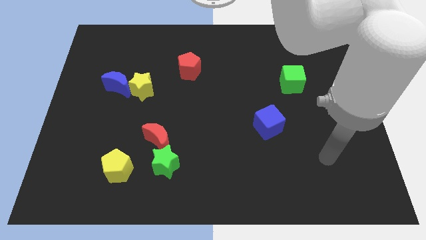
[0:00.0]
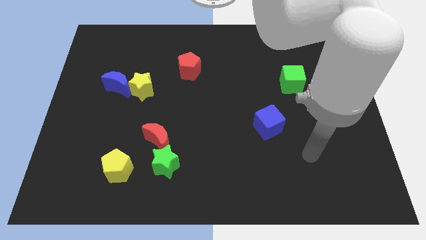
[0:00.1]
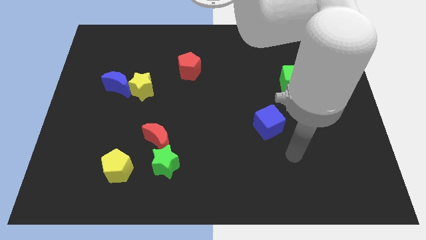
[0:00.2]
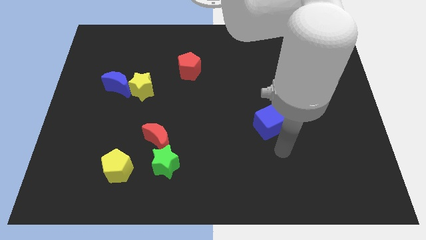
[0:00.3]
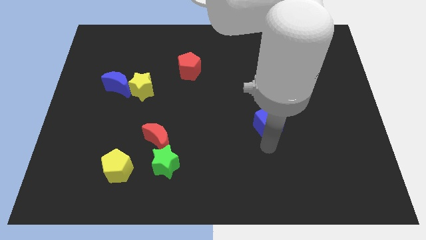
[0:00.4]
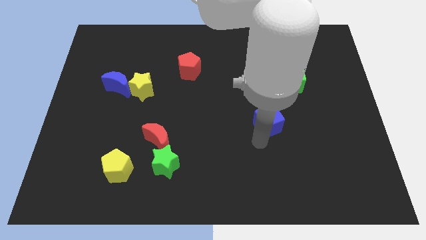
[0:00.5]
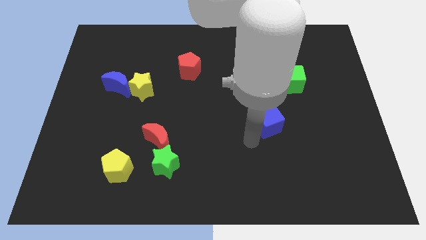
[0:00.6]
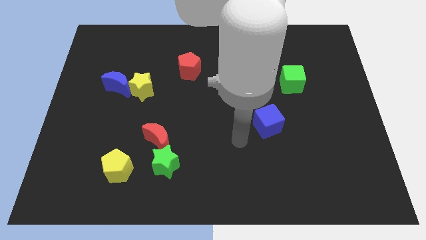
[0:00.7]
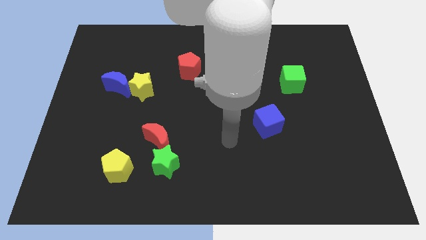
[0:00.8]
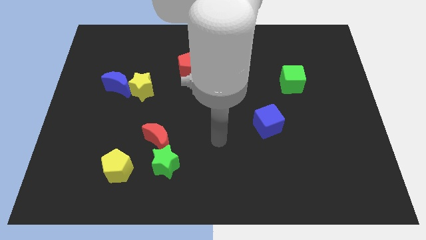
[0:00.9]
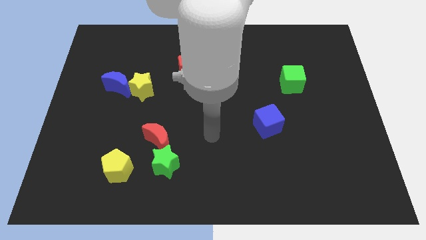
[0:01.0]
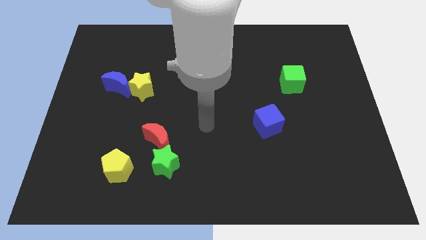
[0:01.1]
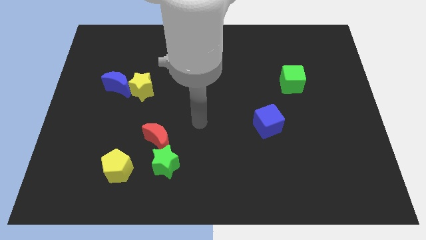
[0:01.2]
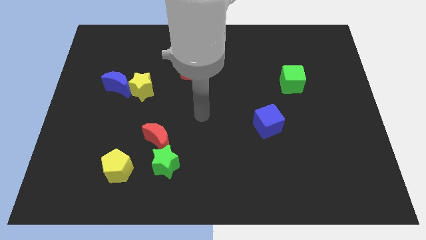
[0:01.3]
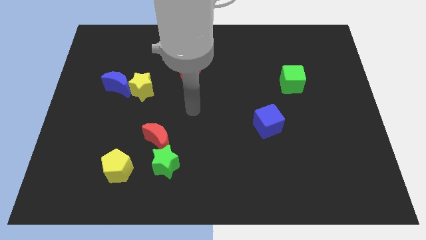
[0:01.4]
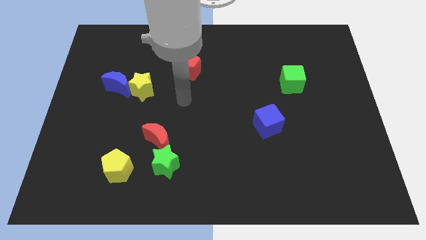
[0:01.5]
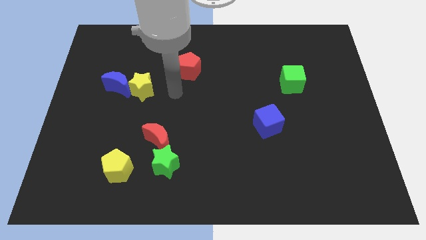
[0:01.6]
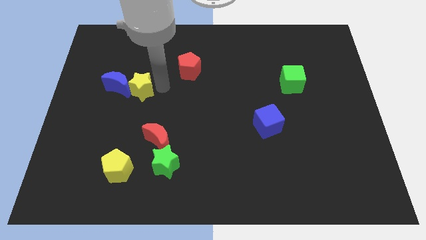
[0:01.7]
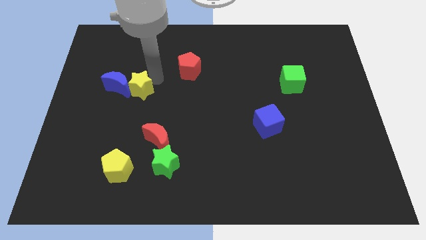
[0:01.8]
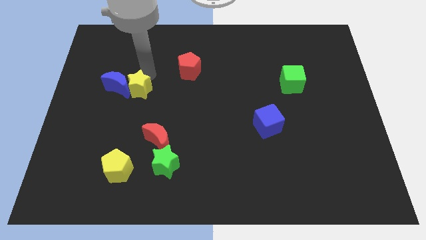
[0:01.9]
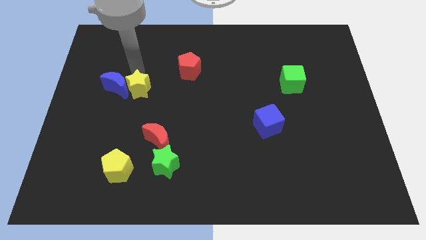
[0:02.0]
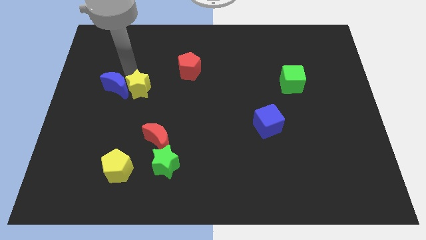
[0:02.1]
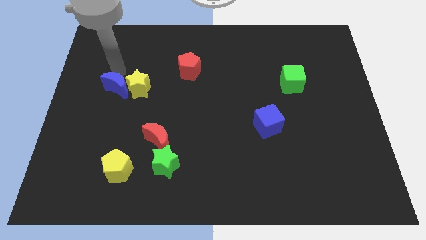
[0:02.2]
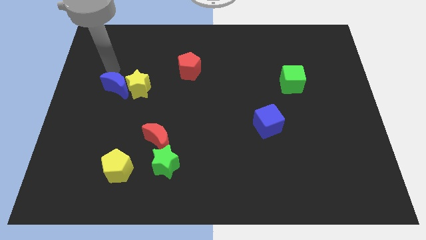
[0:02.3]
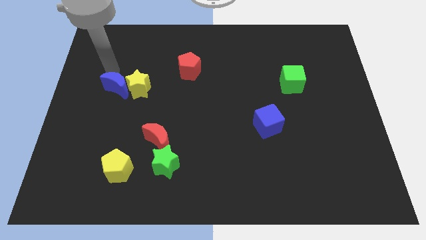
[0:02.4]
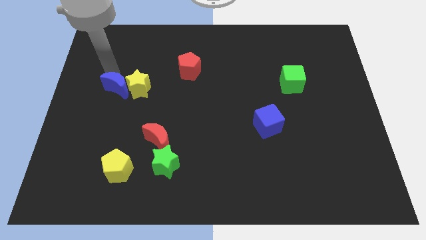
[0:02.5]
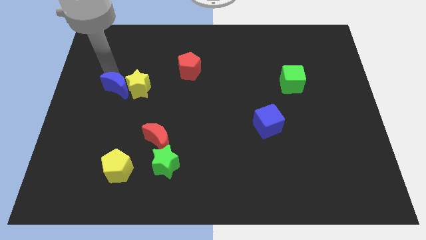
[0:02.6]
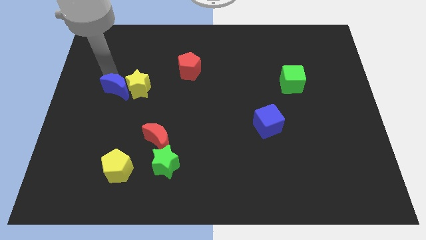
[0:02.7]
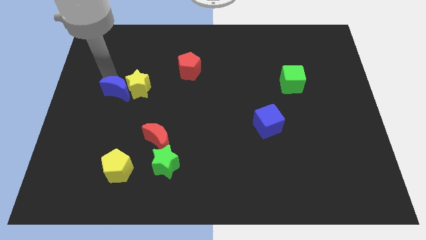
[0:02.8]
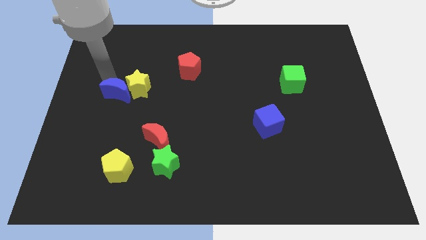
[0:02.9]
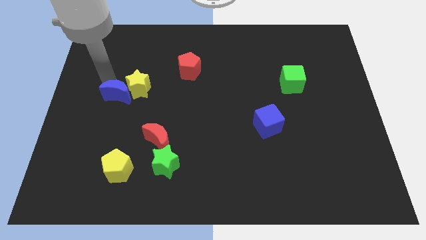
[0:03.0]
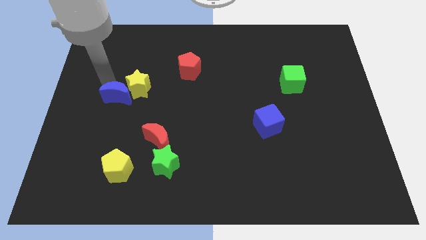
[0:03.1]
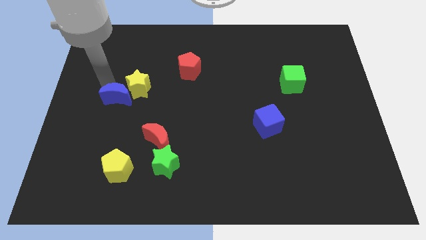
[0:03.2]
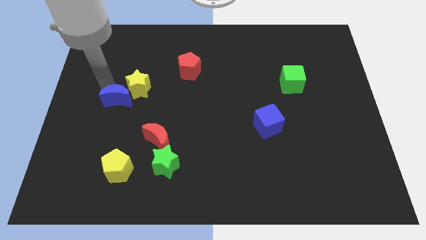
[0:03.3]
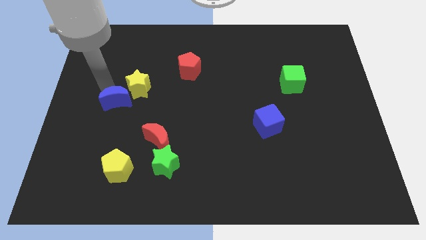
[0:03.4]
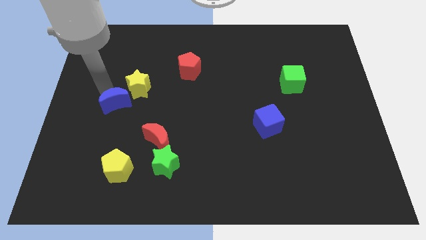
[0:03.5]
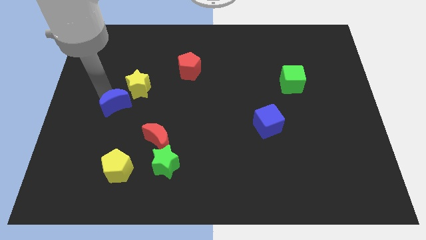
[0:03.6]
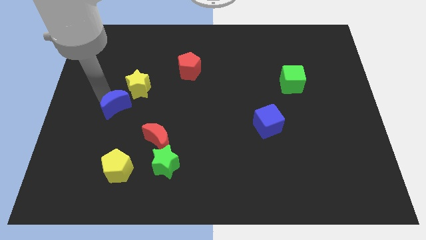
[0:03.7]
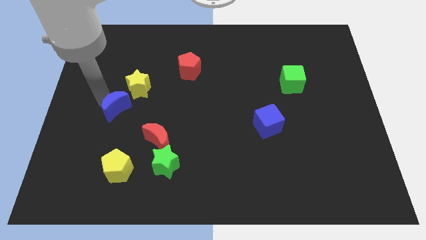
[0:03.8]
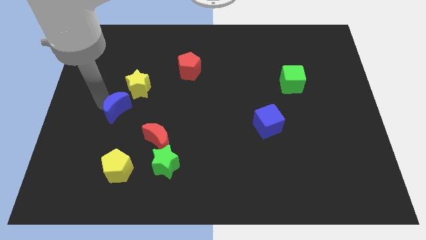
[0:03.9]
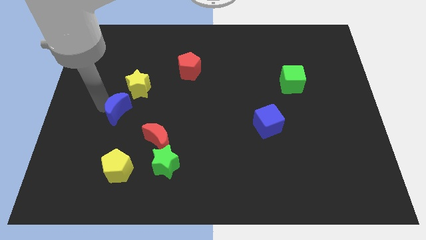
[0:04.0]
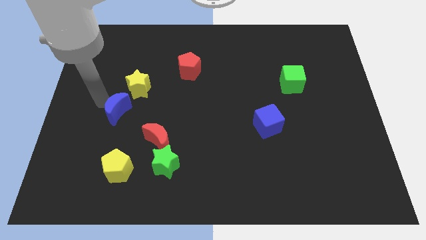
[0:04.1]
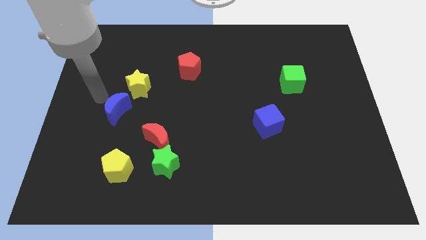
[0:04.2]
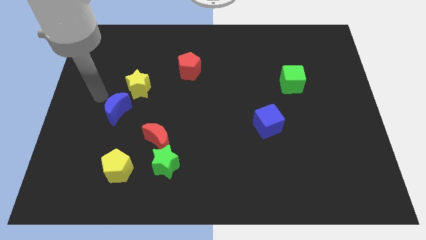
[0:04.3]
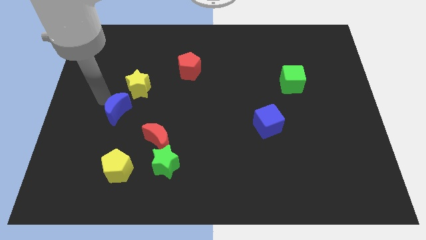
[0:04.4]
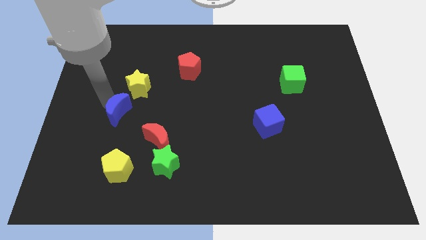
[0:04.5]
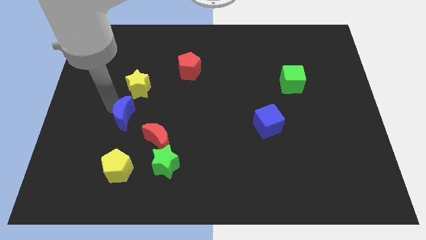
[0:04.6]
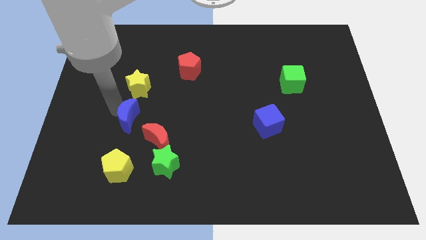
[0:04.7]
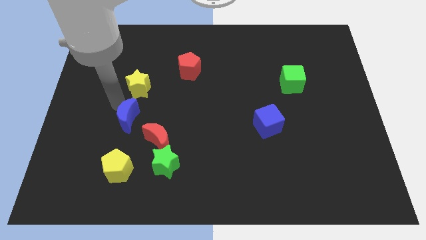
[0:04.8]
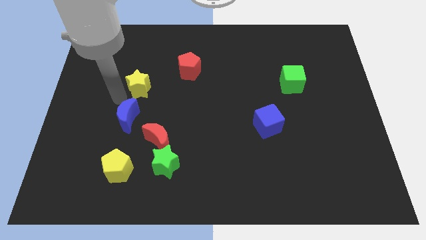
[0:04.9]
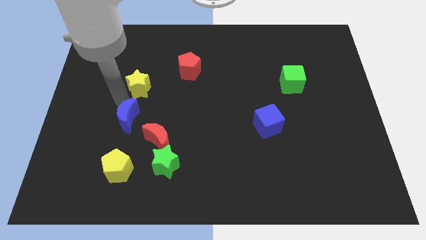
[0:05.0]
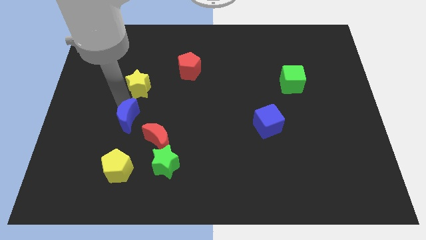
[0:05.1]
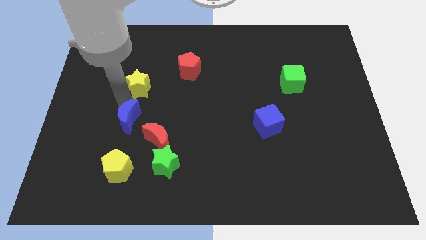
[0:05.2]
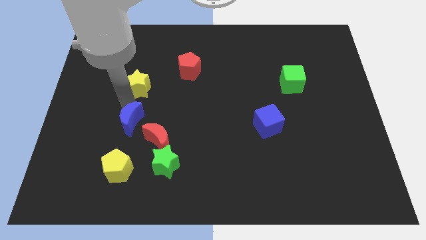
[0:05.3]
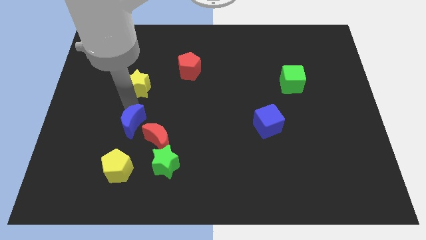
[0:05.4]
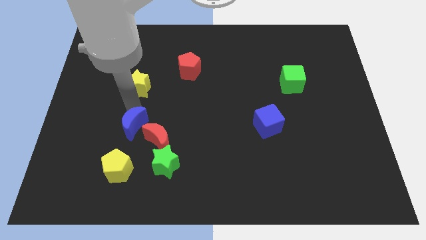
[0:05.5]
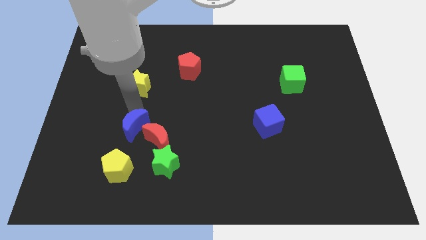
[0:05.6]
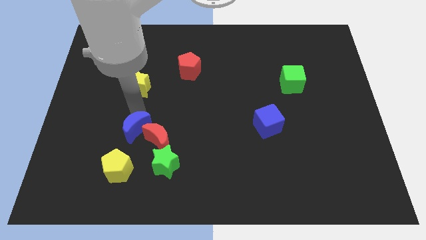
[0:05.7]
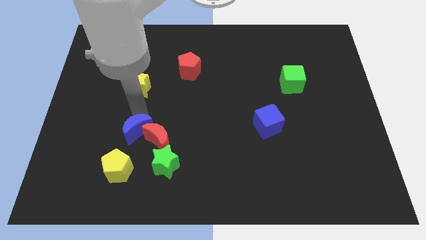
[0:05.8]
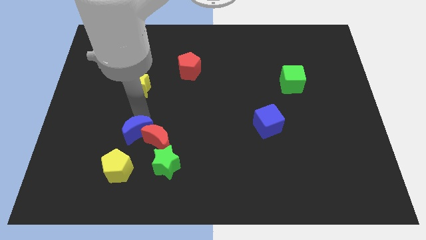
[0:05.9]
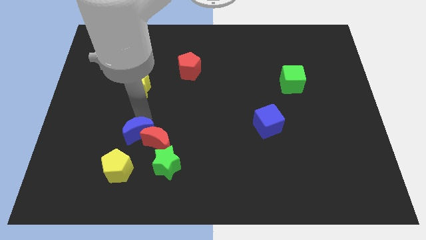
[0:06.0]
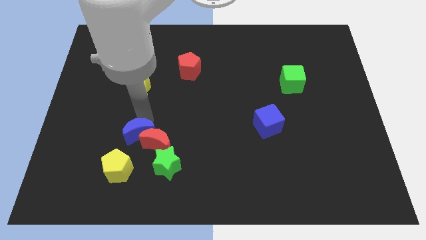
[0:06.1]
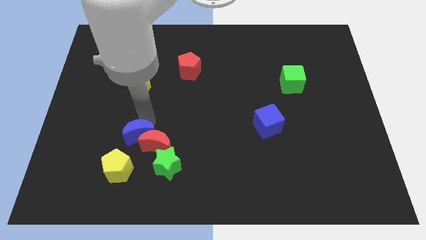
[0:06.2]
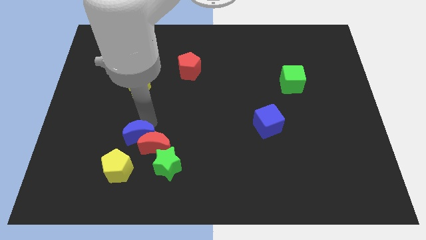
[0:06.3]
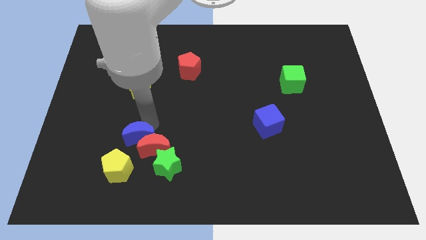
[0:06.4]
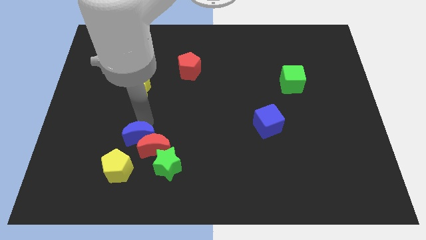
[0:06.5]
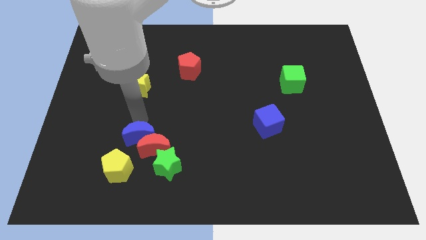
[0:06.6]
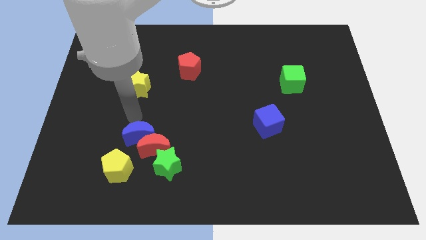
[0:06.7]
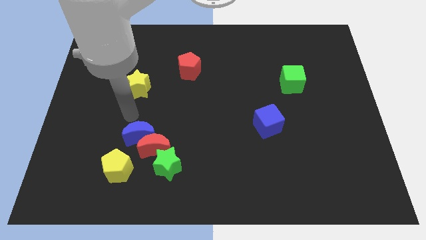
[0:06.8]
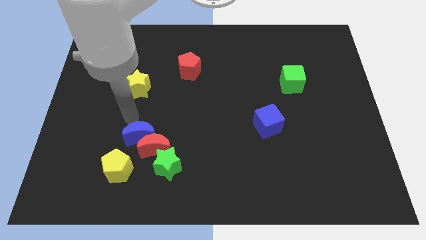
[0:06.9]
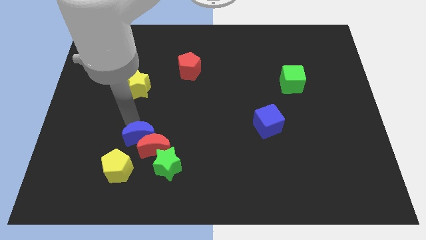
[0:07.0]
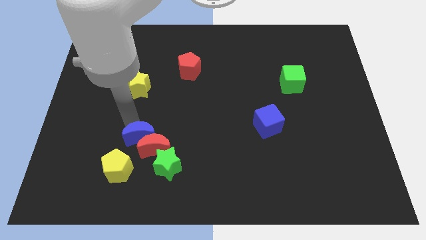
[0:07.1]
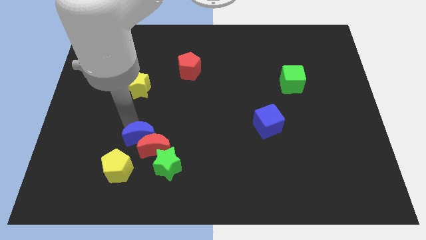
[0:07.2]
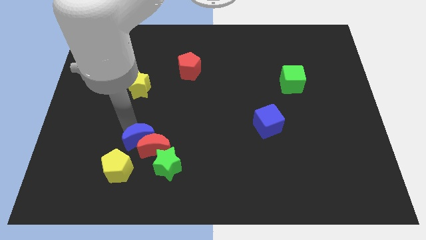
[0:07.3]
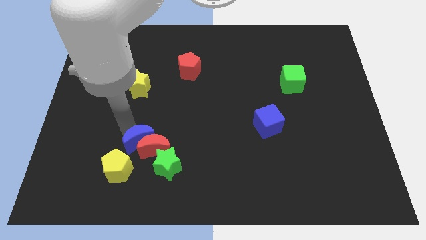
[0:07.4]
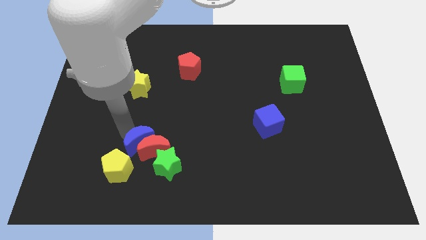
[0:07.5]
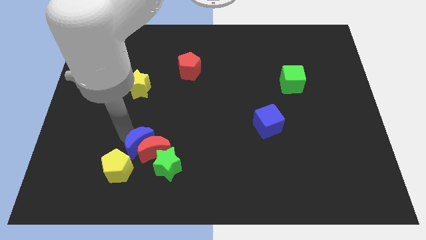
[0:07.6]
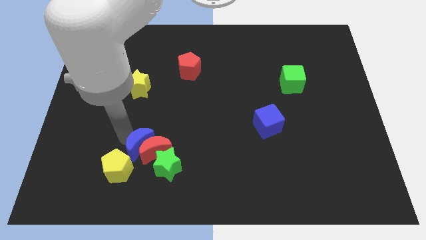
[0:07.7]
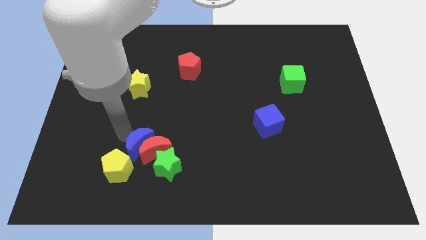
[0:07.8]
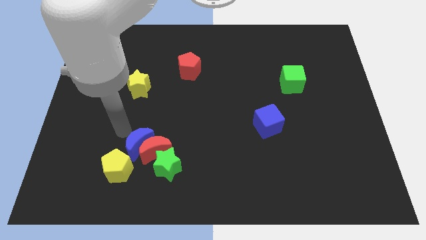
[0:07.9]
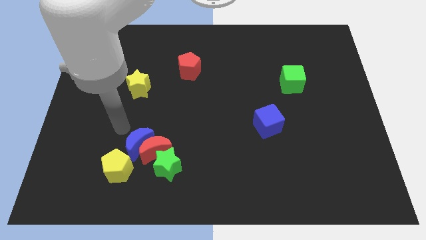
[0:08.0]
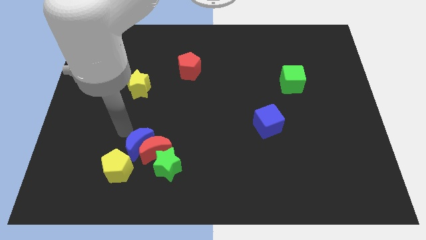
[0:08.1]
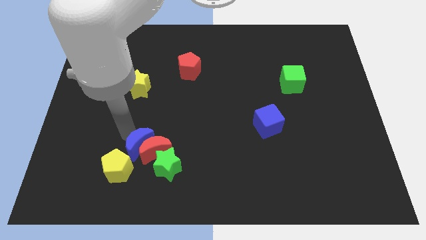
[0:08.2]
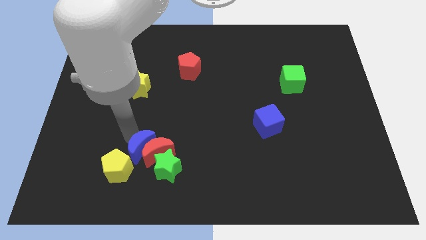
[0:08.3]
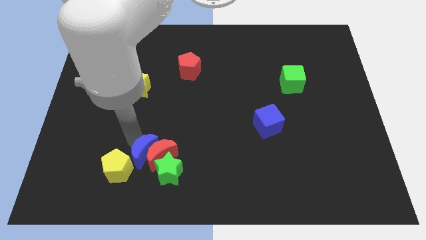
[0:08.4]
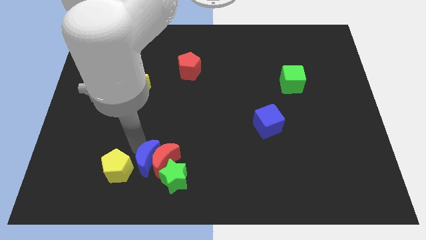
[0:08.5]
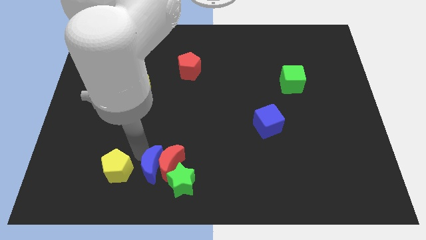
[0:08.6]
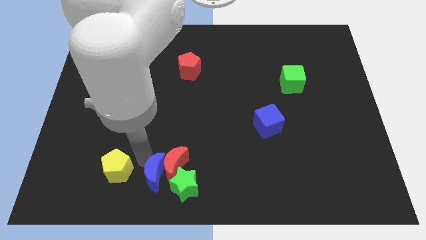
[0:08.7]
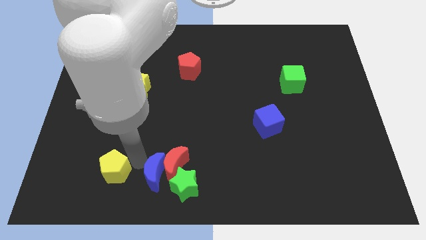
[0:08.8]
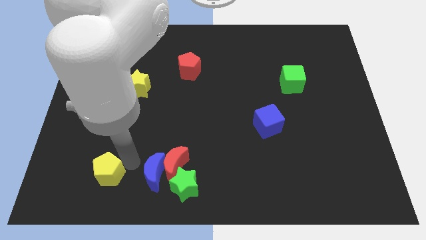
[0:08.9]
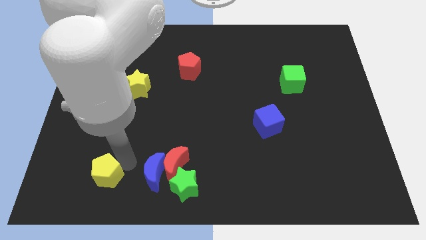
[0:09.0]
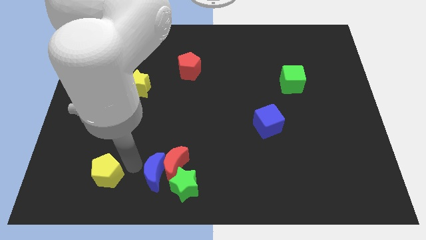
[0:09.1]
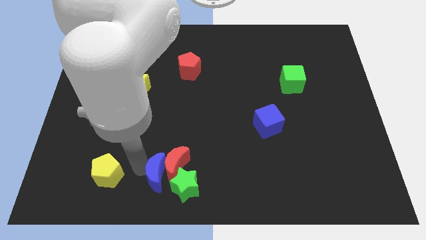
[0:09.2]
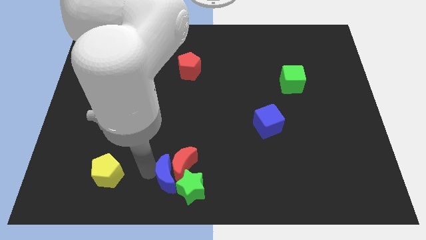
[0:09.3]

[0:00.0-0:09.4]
put the blue moon close to the green star
